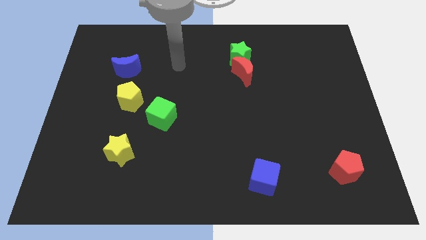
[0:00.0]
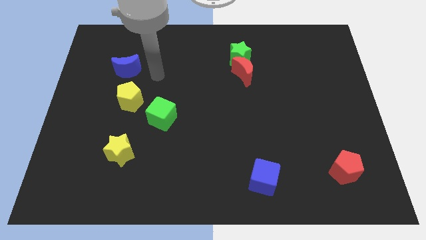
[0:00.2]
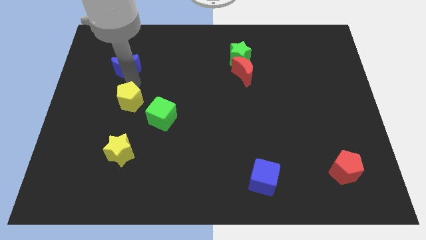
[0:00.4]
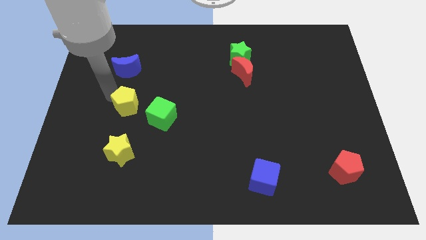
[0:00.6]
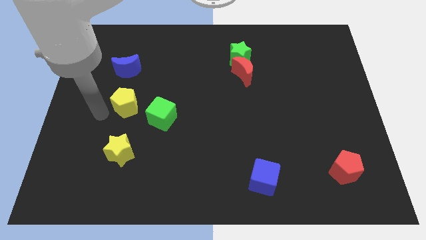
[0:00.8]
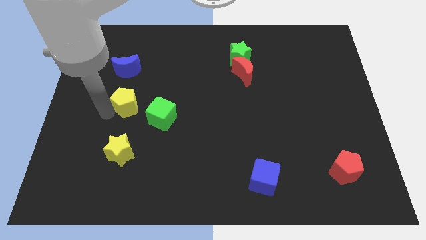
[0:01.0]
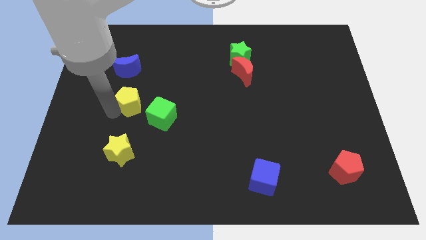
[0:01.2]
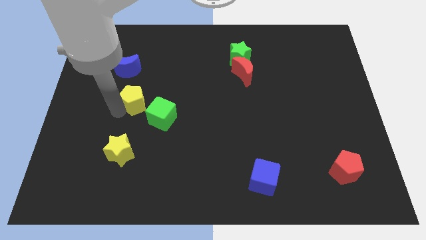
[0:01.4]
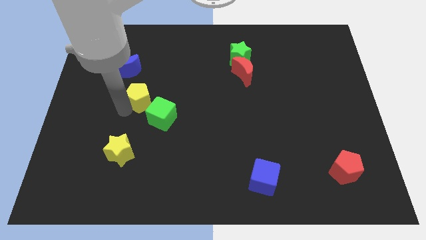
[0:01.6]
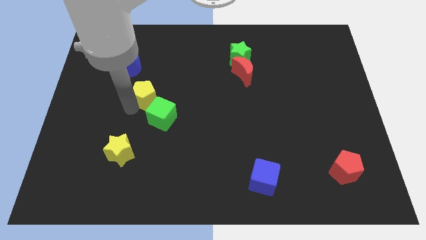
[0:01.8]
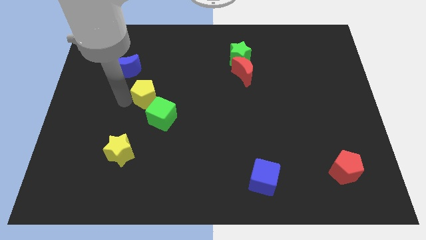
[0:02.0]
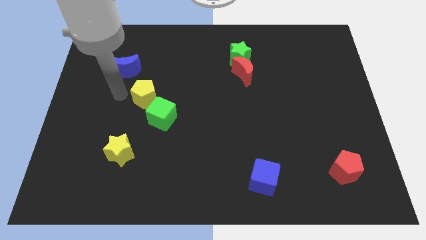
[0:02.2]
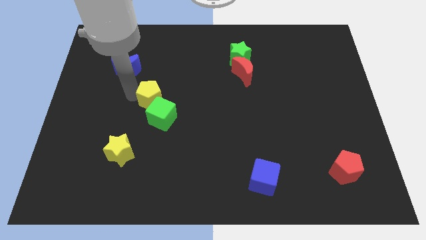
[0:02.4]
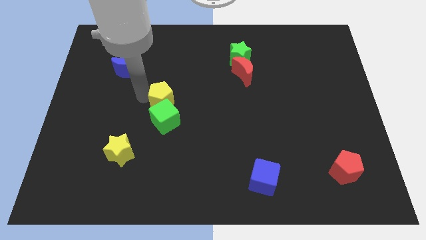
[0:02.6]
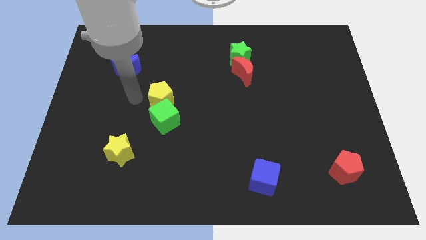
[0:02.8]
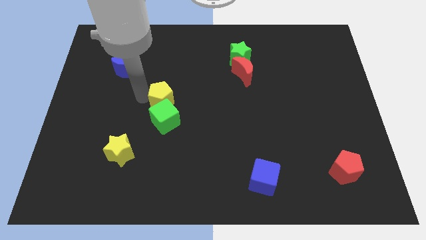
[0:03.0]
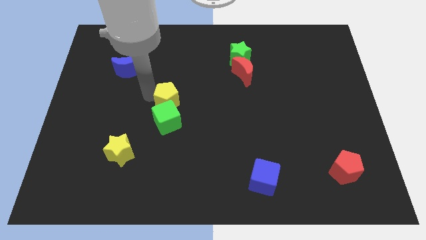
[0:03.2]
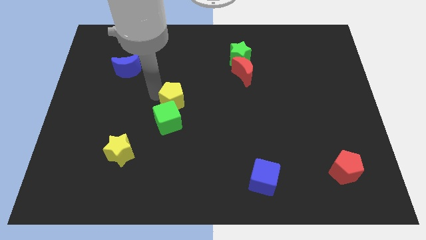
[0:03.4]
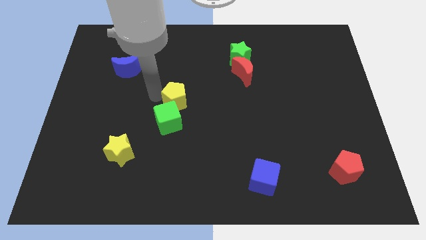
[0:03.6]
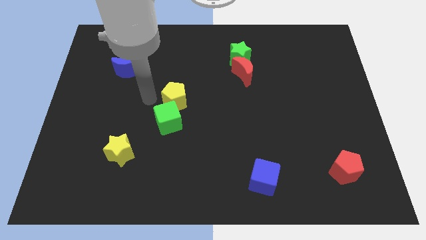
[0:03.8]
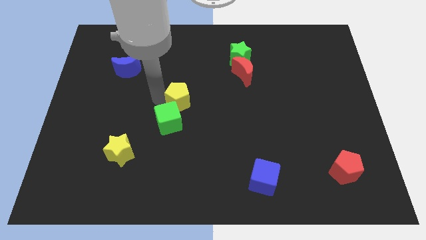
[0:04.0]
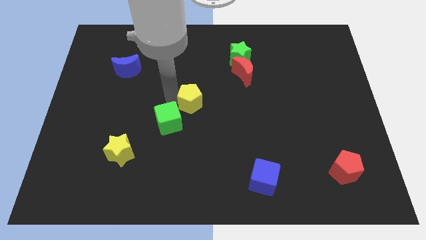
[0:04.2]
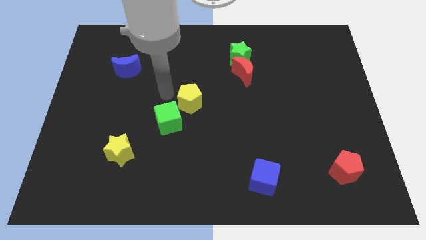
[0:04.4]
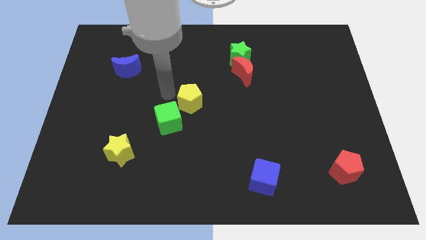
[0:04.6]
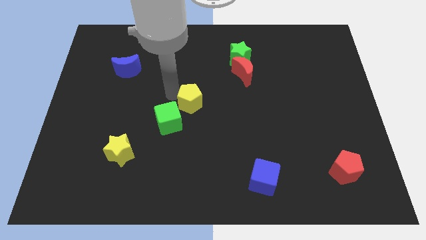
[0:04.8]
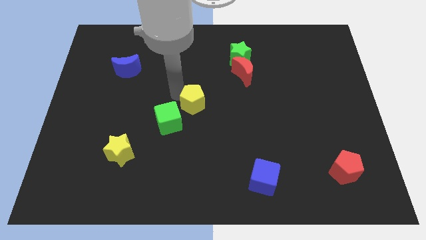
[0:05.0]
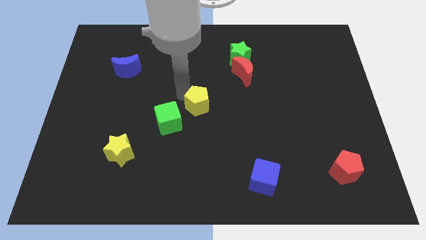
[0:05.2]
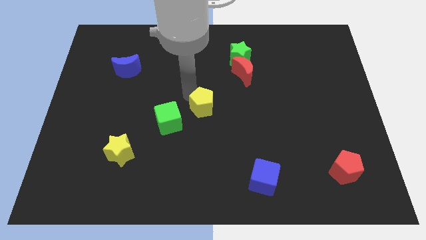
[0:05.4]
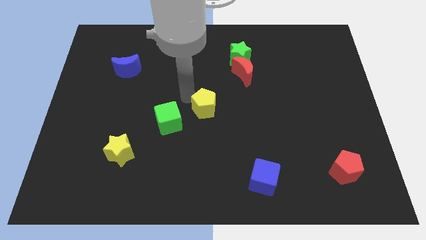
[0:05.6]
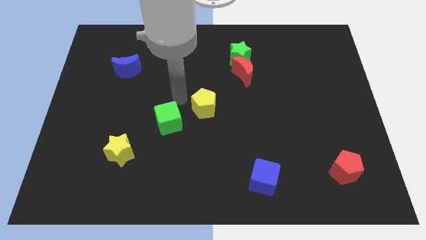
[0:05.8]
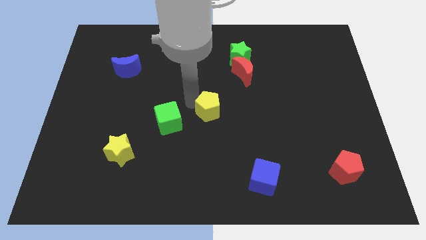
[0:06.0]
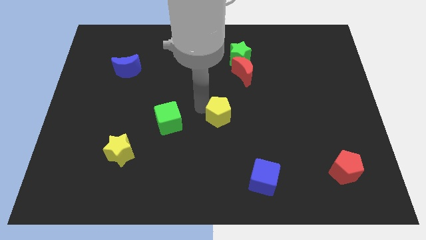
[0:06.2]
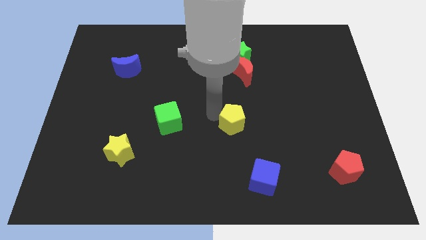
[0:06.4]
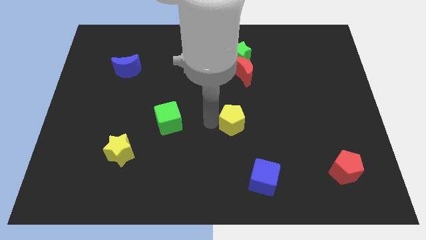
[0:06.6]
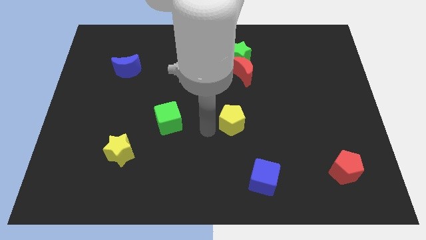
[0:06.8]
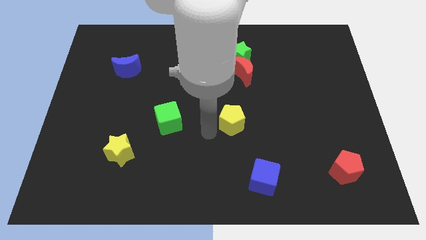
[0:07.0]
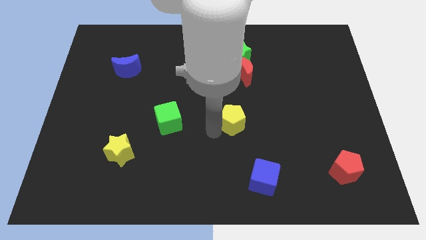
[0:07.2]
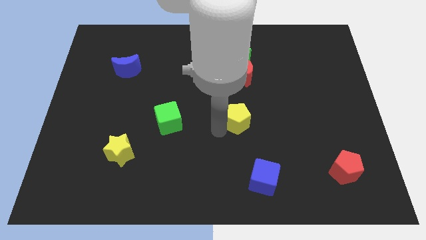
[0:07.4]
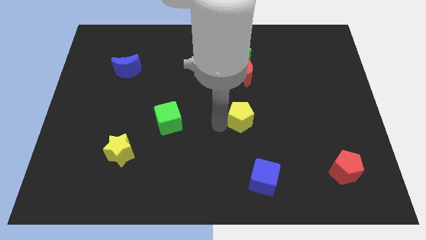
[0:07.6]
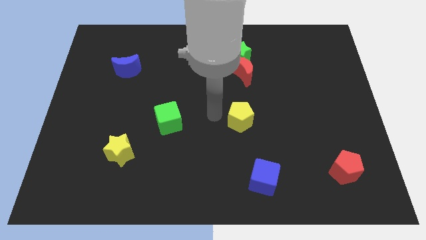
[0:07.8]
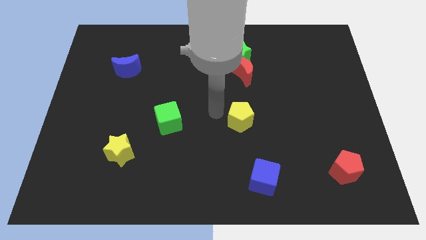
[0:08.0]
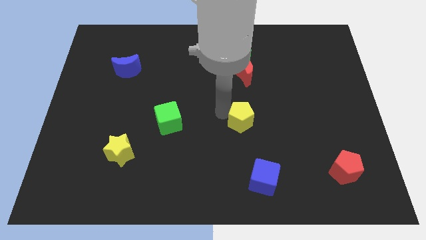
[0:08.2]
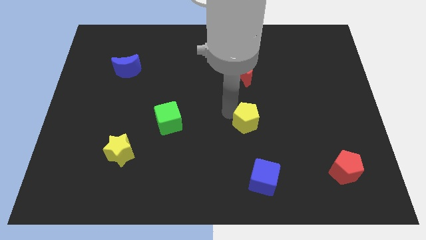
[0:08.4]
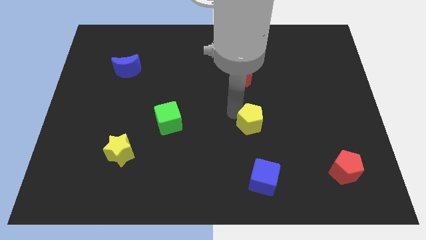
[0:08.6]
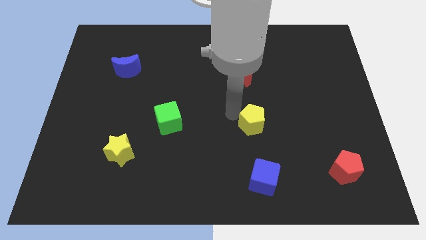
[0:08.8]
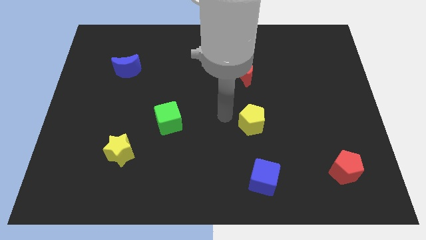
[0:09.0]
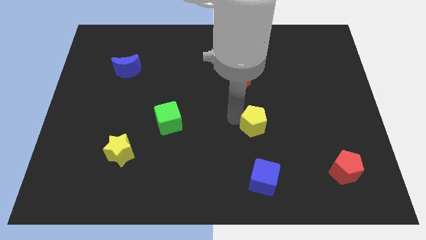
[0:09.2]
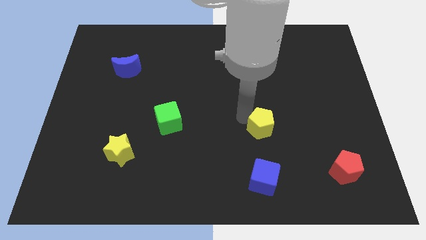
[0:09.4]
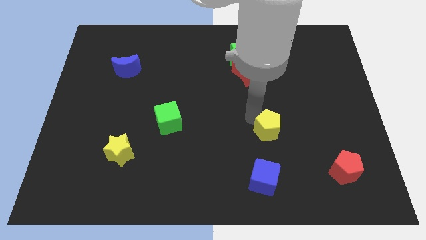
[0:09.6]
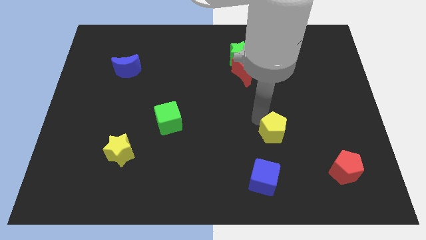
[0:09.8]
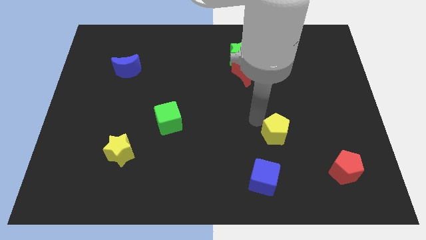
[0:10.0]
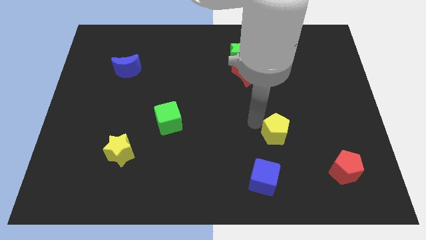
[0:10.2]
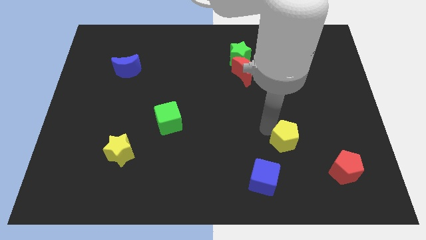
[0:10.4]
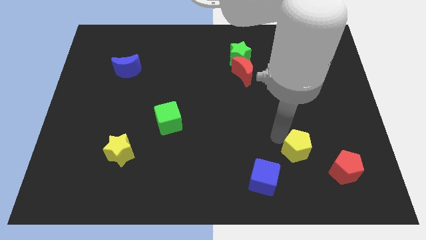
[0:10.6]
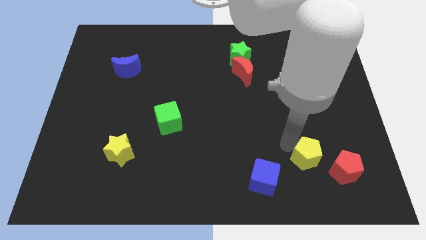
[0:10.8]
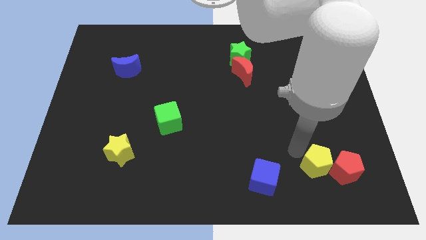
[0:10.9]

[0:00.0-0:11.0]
slide the yellow pentagon close to the red pentagon

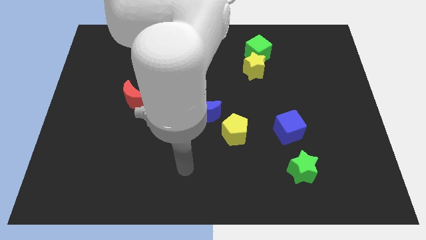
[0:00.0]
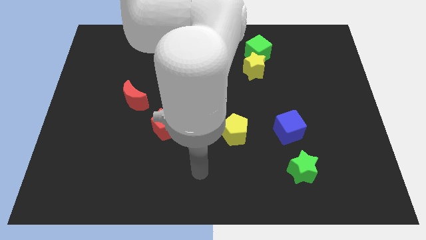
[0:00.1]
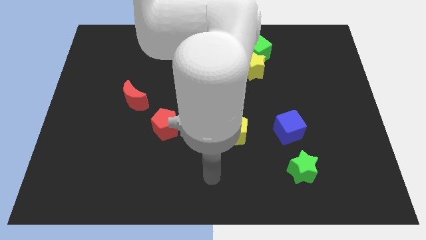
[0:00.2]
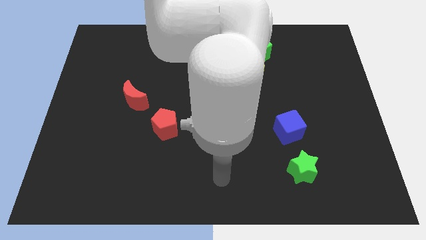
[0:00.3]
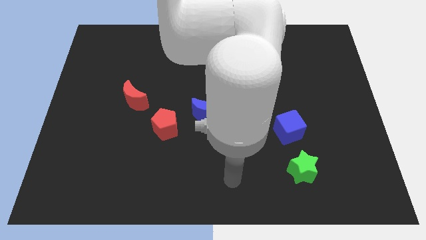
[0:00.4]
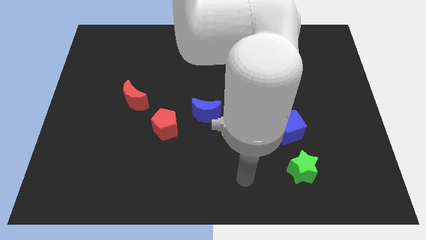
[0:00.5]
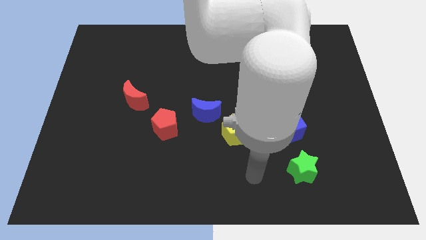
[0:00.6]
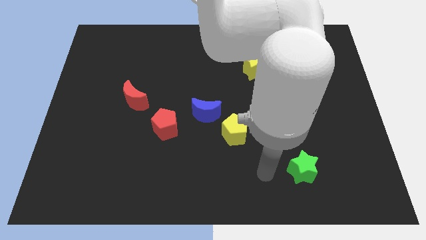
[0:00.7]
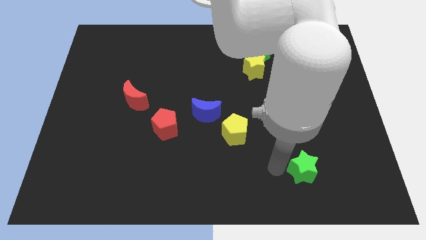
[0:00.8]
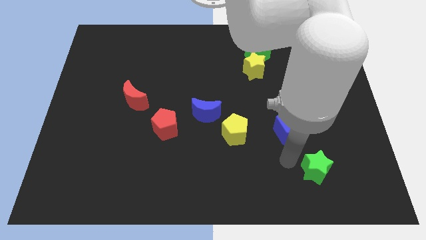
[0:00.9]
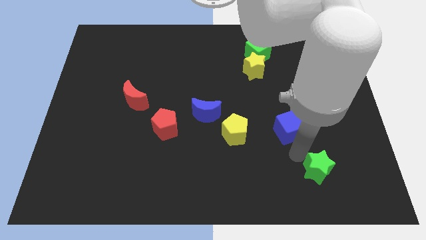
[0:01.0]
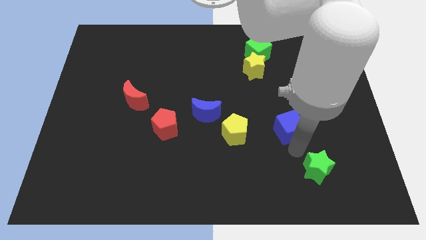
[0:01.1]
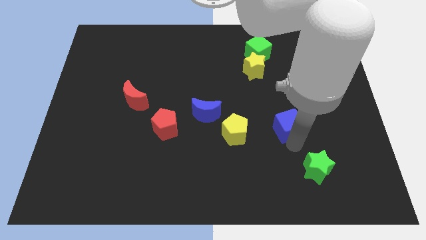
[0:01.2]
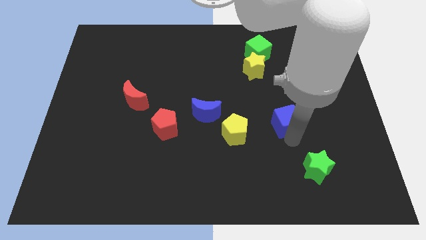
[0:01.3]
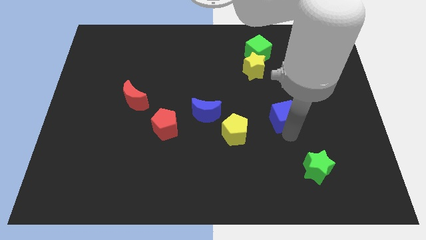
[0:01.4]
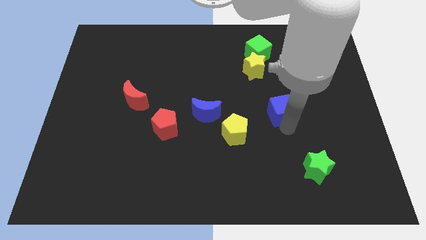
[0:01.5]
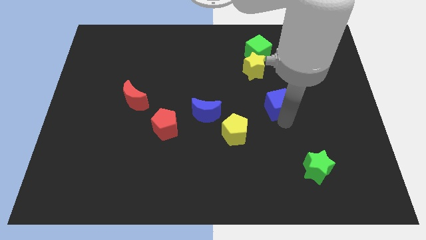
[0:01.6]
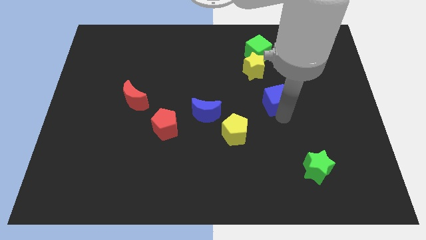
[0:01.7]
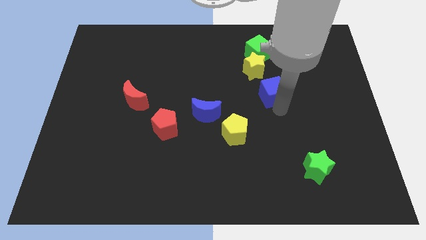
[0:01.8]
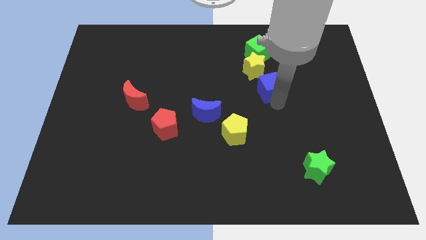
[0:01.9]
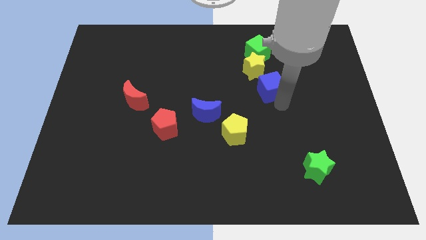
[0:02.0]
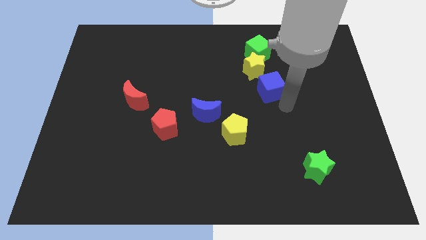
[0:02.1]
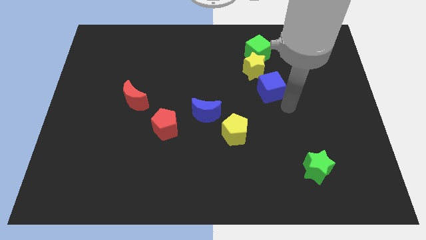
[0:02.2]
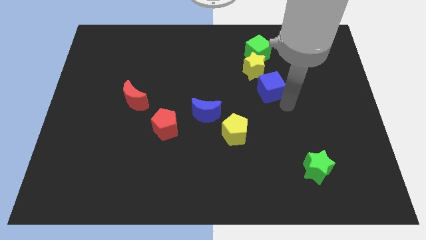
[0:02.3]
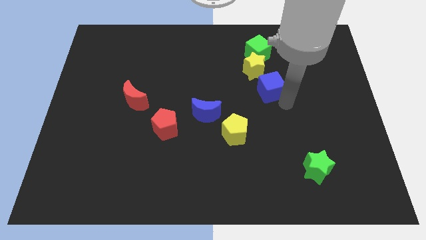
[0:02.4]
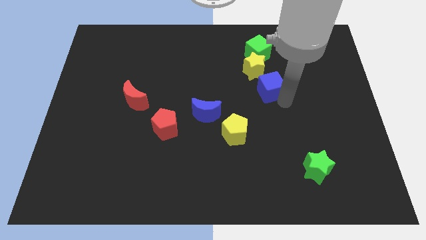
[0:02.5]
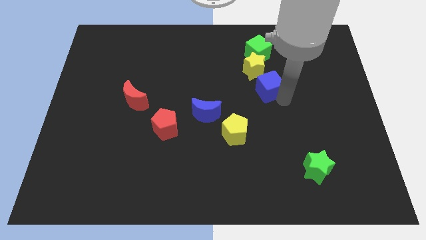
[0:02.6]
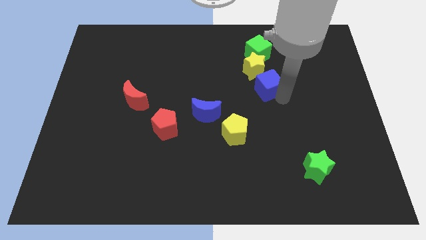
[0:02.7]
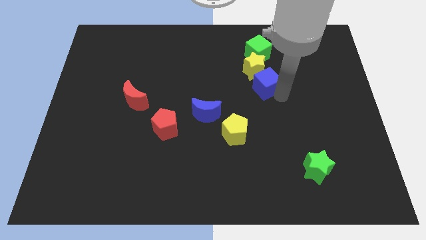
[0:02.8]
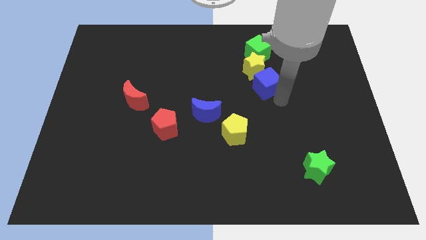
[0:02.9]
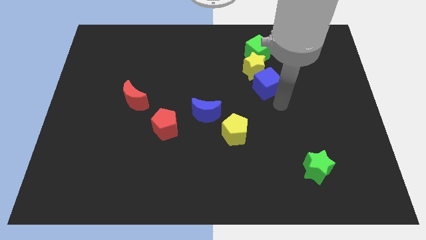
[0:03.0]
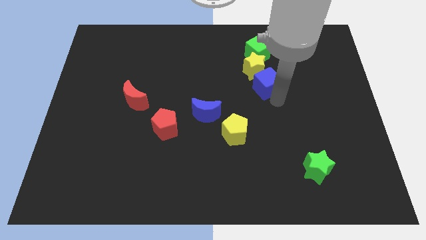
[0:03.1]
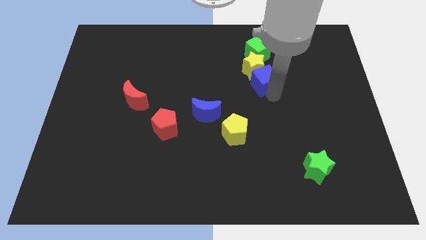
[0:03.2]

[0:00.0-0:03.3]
put the blue cube to the yellow star
